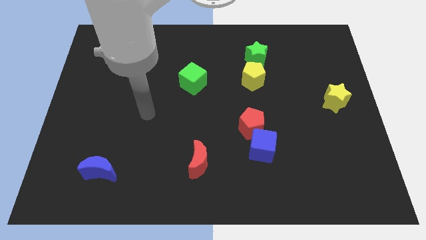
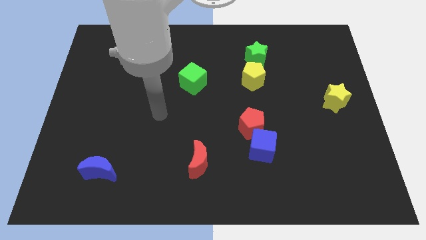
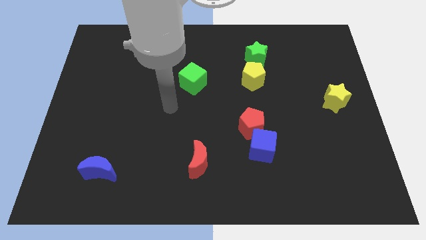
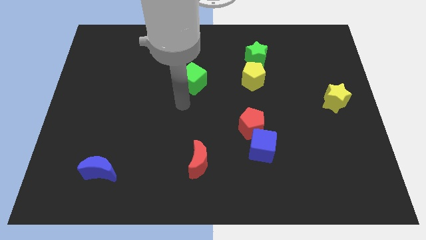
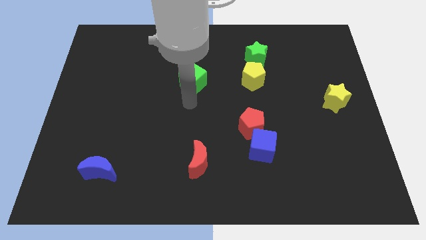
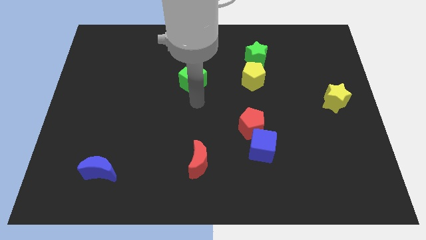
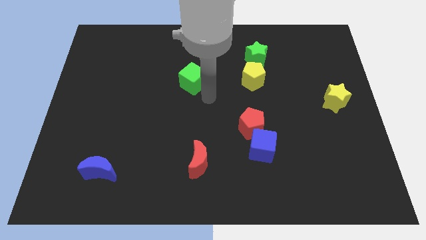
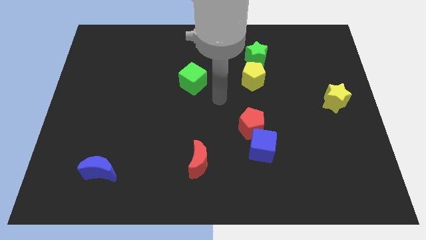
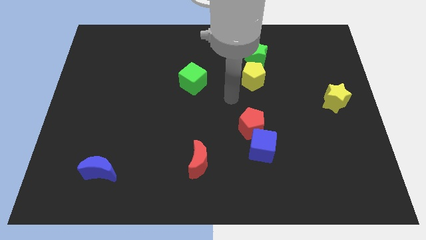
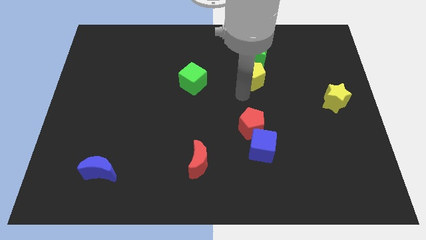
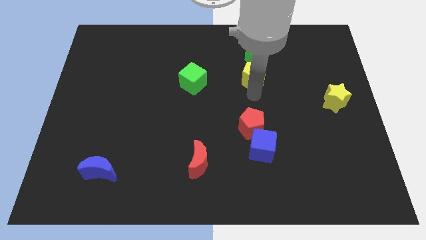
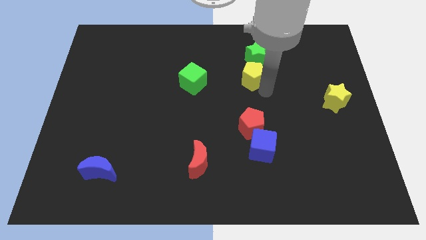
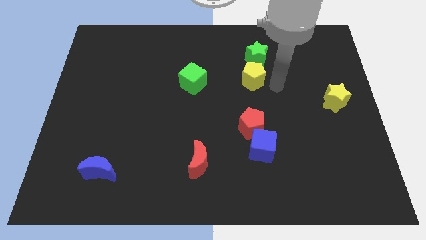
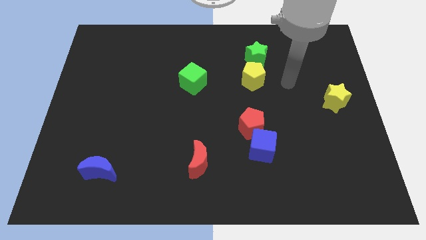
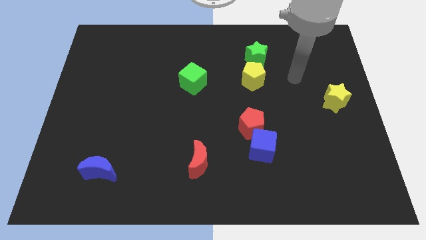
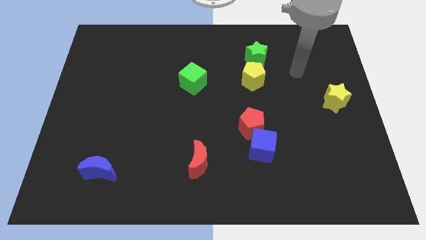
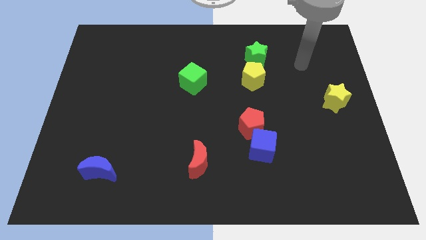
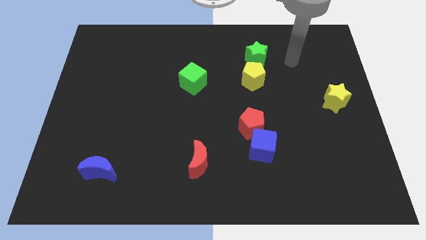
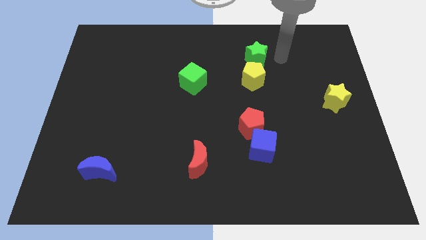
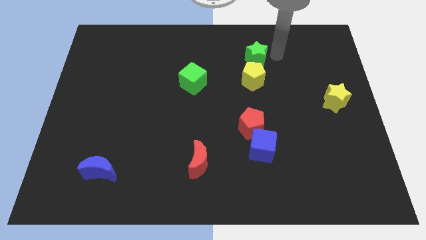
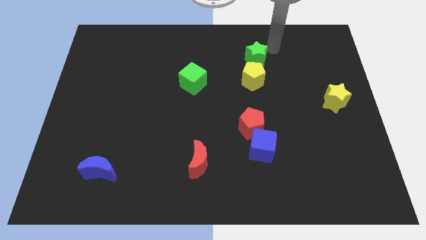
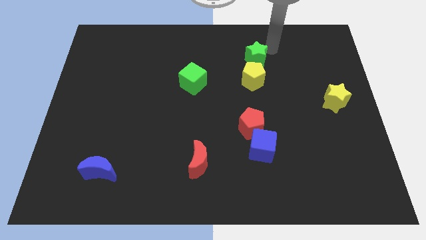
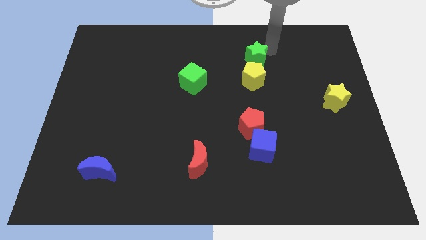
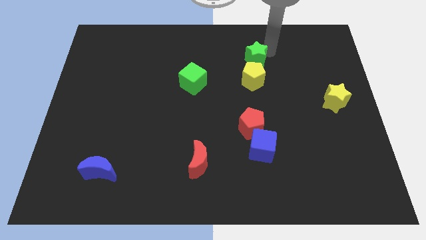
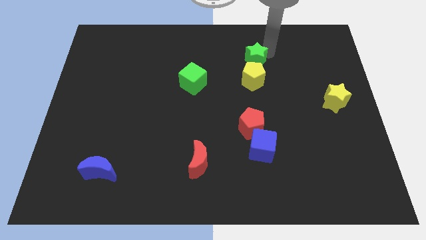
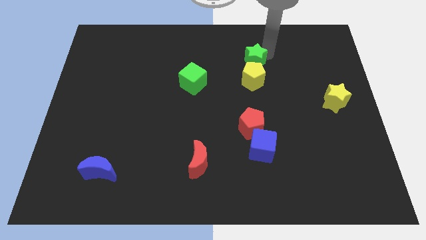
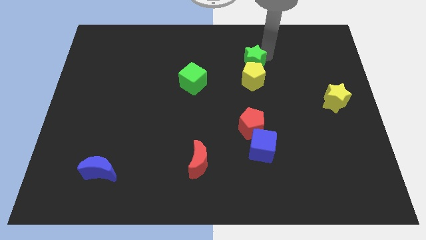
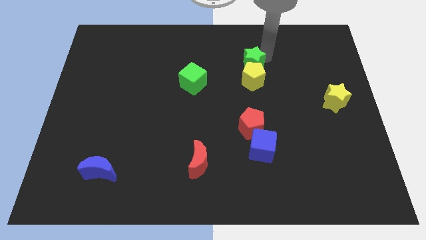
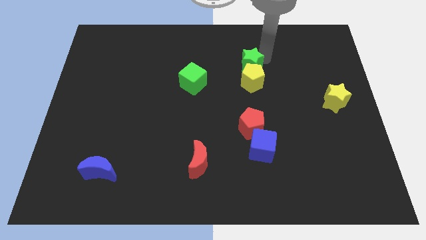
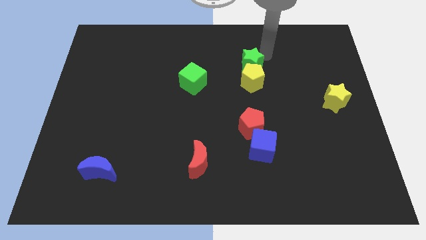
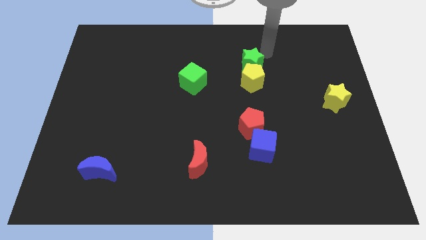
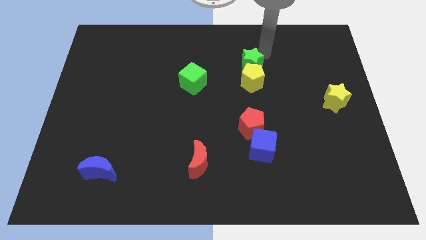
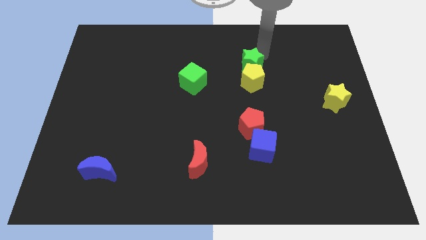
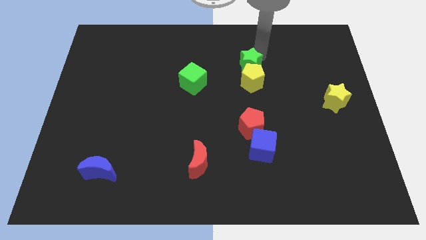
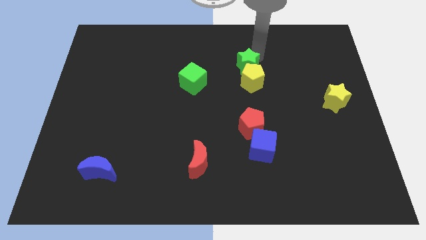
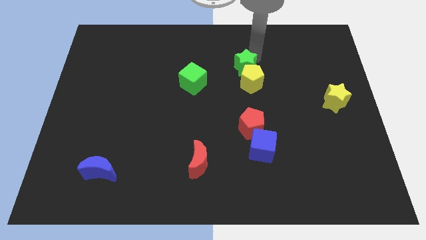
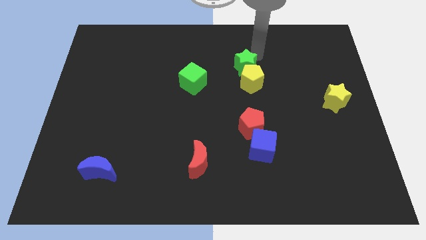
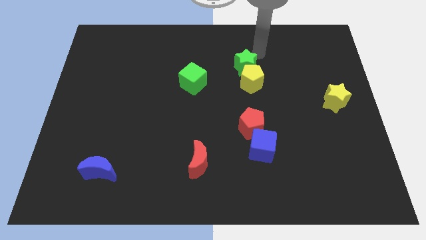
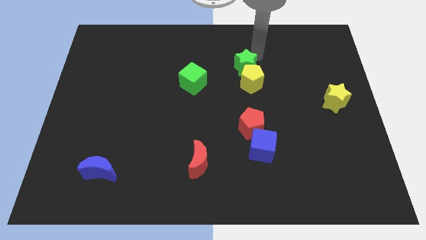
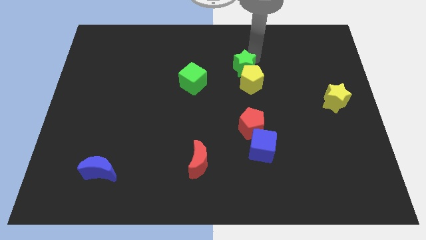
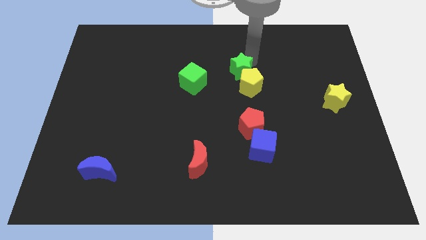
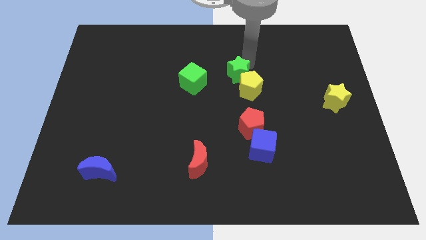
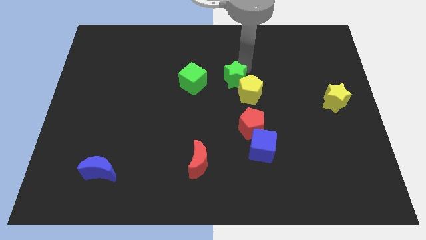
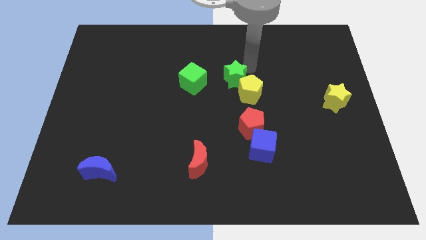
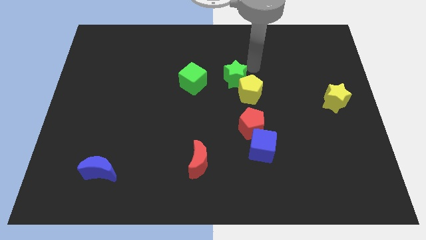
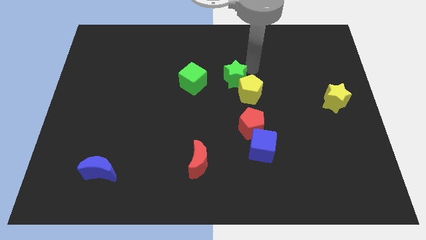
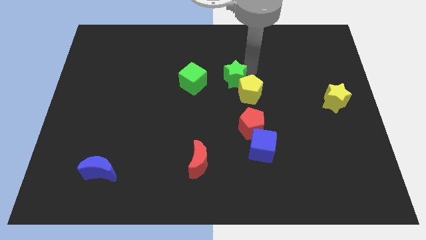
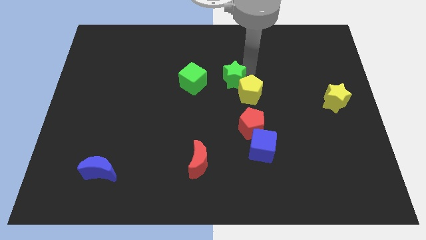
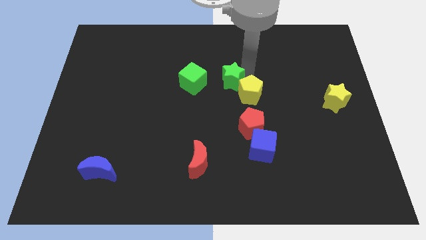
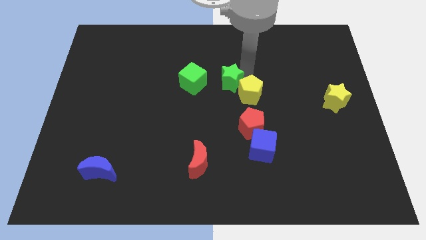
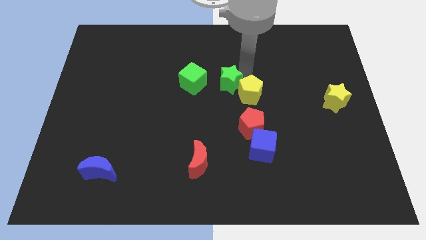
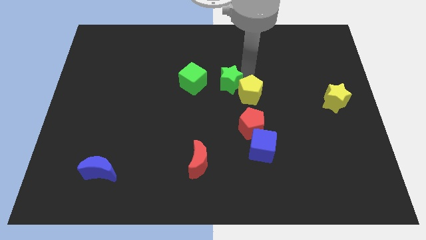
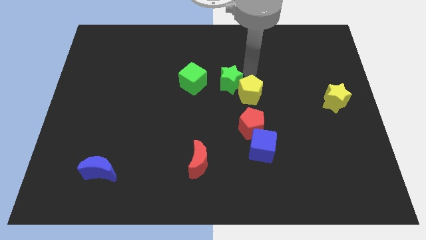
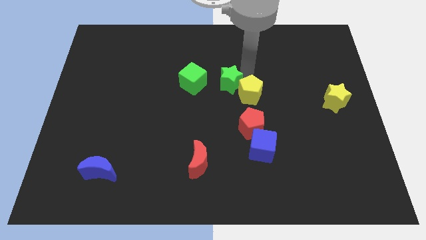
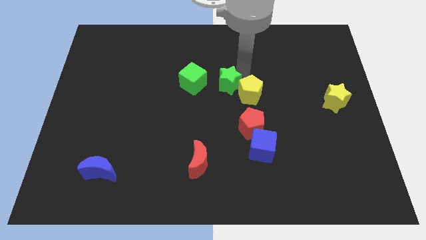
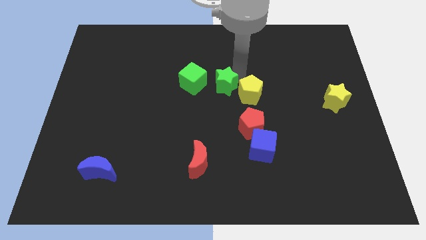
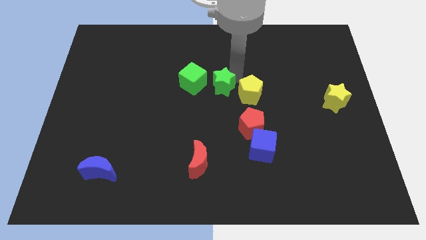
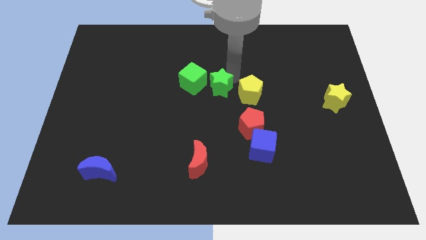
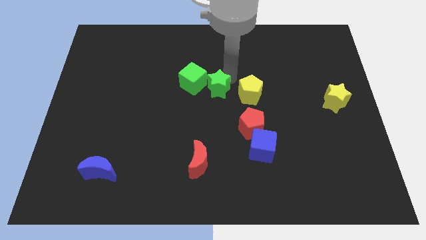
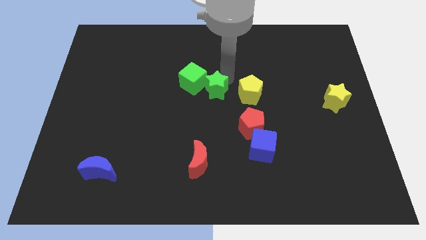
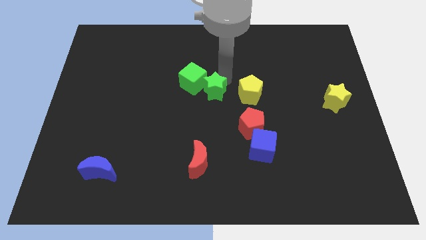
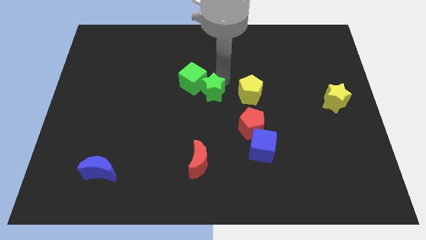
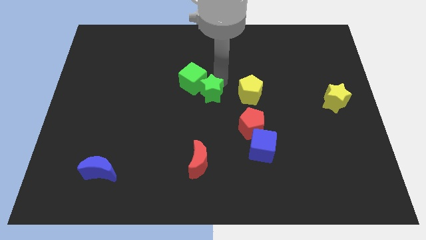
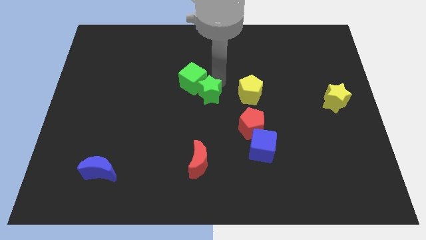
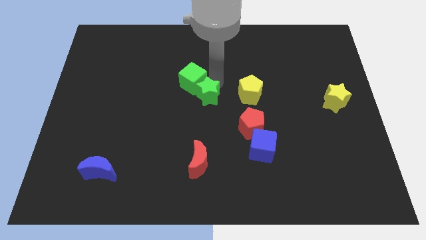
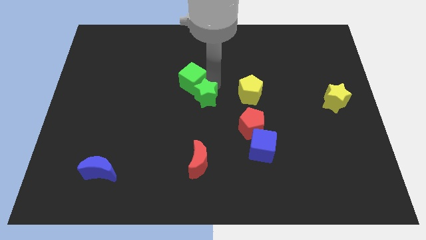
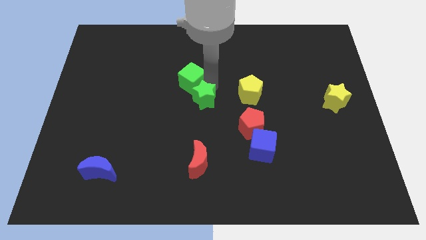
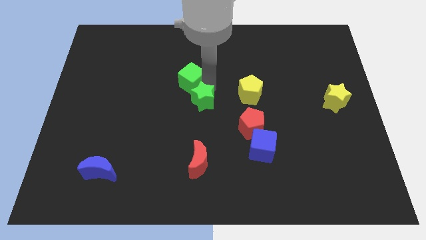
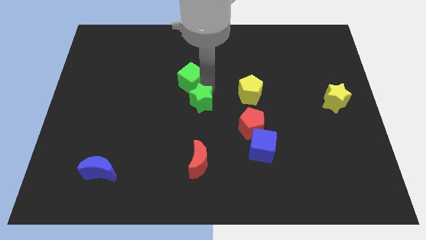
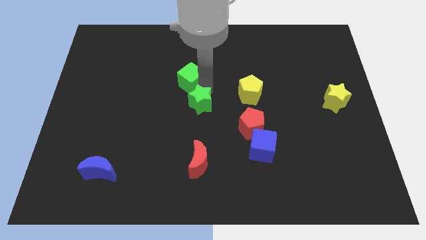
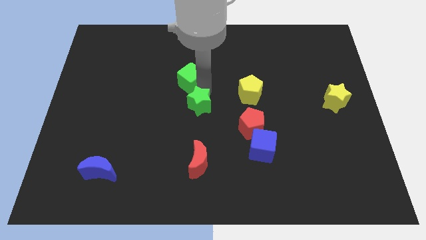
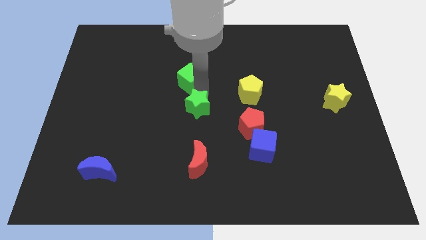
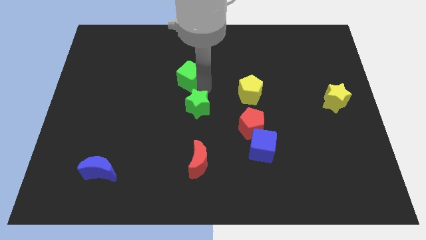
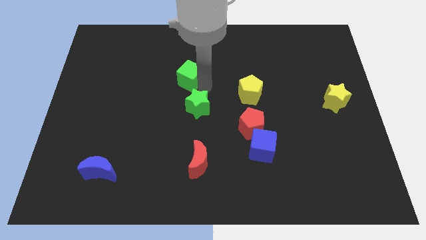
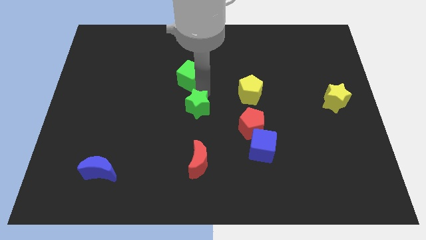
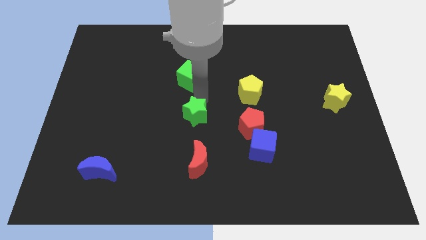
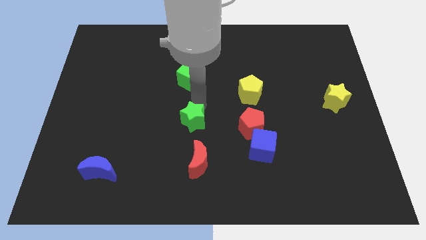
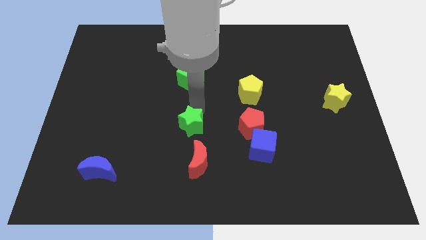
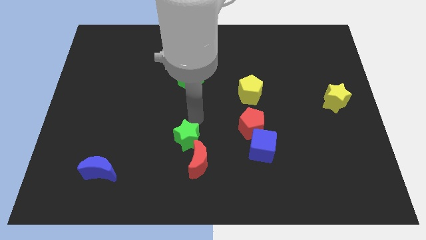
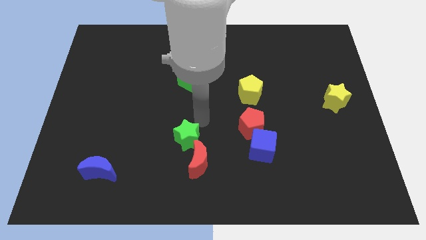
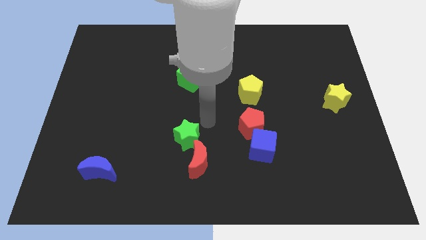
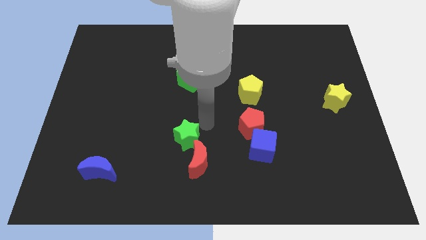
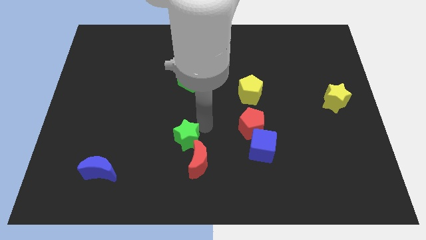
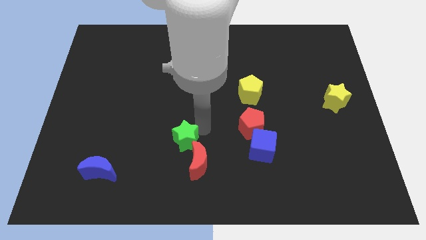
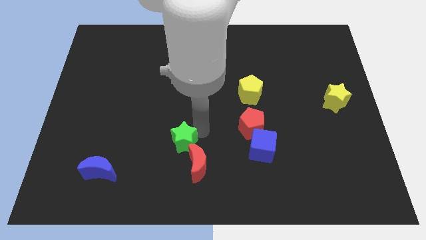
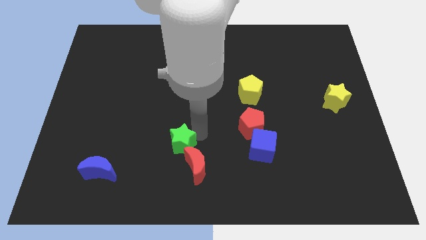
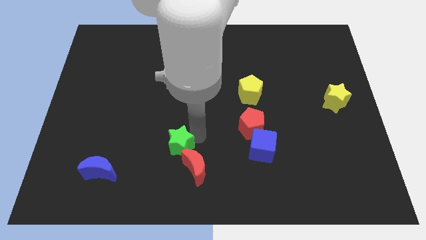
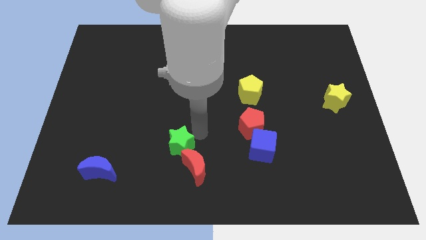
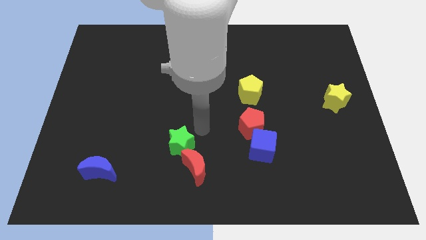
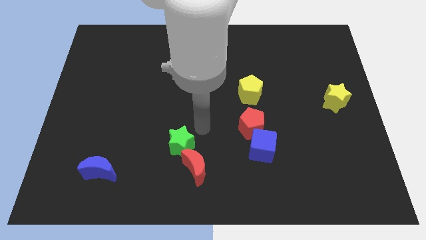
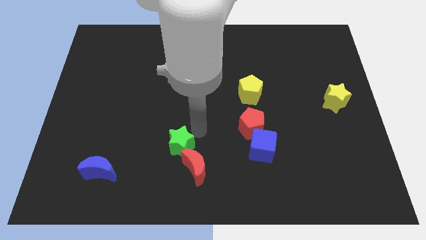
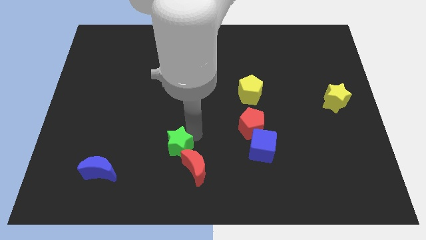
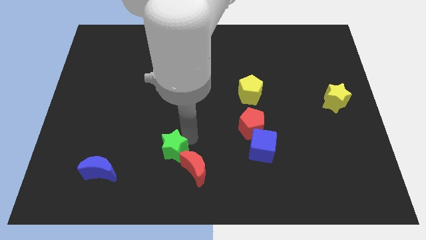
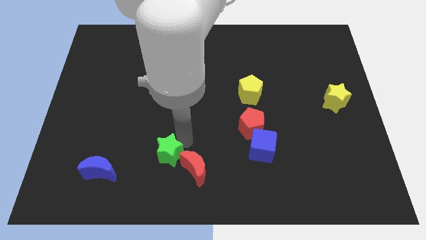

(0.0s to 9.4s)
slide the green star just right of the blue moon
